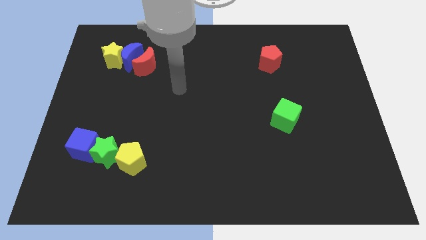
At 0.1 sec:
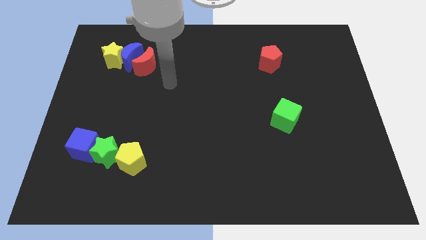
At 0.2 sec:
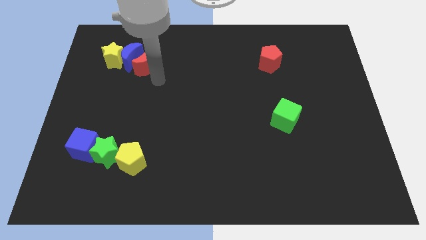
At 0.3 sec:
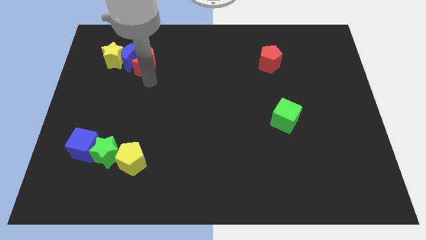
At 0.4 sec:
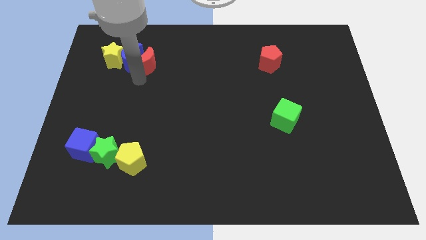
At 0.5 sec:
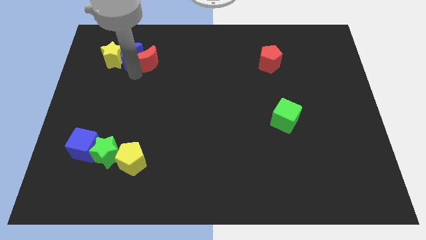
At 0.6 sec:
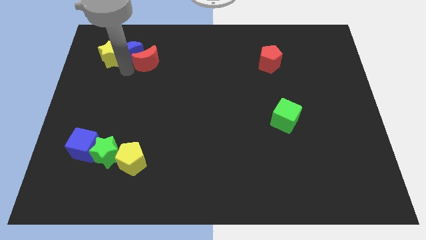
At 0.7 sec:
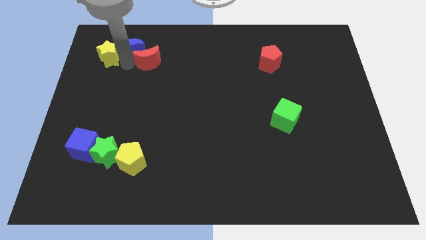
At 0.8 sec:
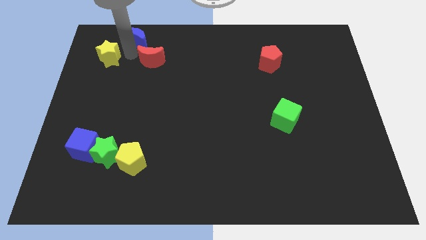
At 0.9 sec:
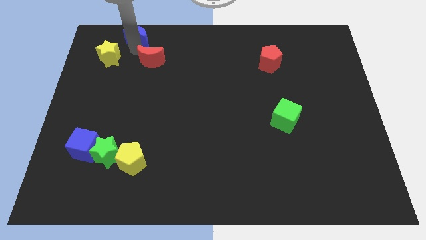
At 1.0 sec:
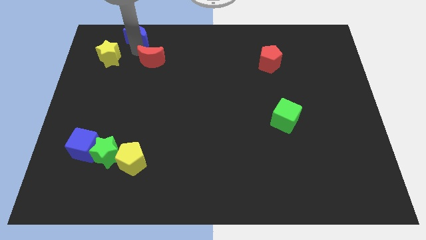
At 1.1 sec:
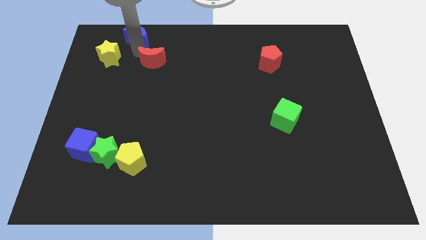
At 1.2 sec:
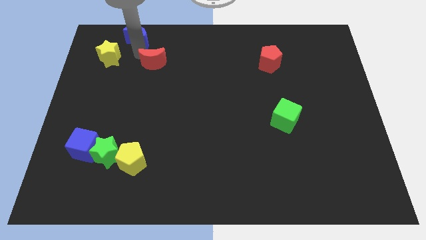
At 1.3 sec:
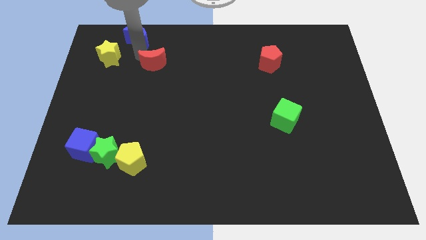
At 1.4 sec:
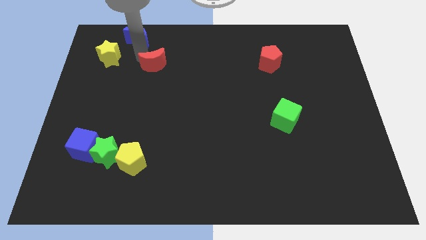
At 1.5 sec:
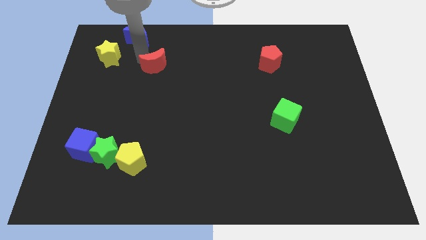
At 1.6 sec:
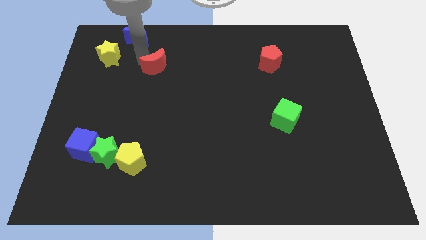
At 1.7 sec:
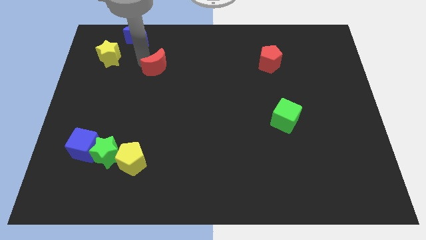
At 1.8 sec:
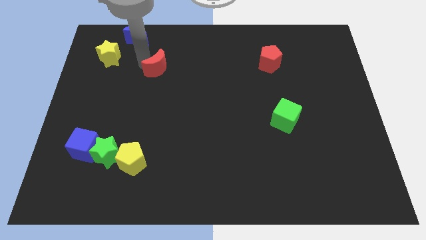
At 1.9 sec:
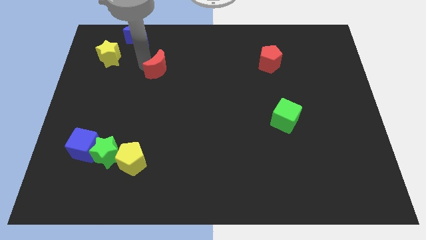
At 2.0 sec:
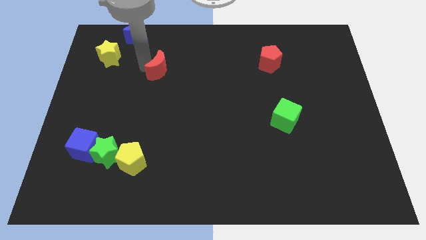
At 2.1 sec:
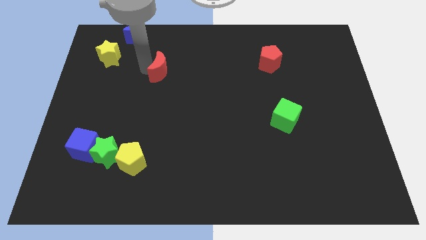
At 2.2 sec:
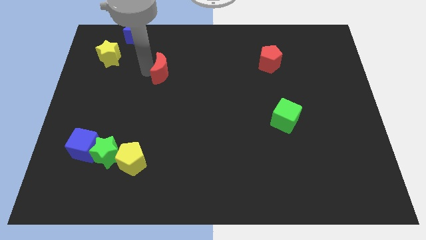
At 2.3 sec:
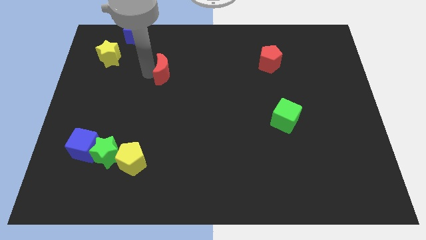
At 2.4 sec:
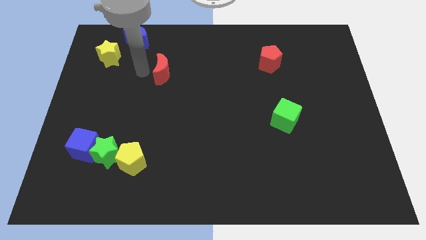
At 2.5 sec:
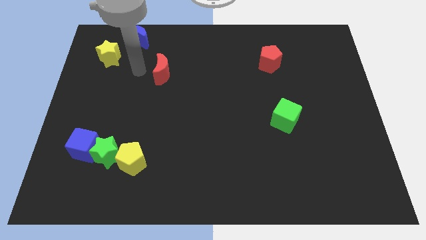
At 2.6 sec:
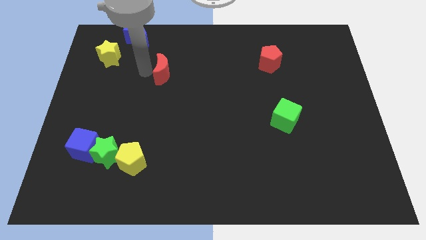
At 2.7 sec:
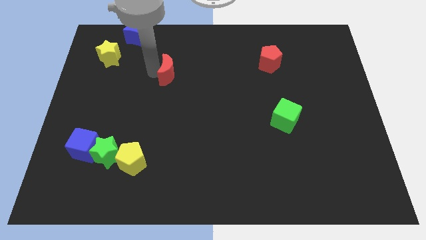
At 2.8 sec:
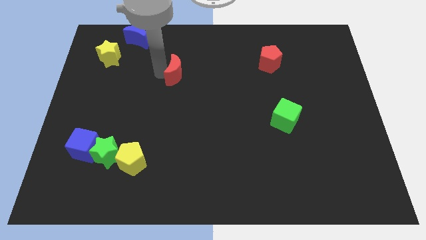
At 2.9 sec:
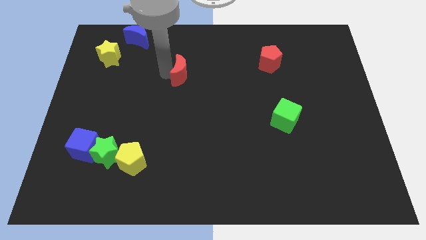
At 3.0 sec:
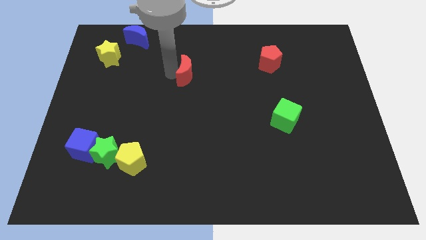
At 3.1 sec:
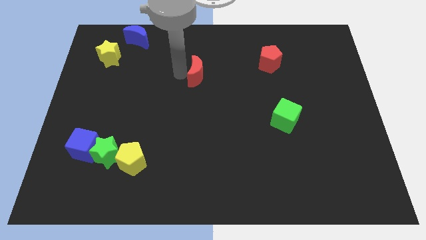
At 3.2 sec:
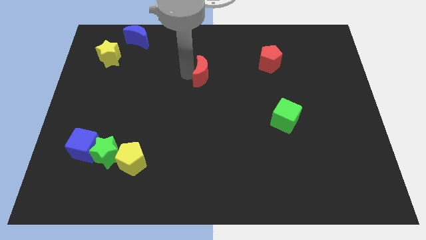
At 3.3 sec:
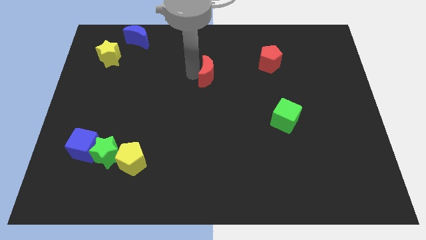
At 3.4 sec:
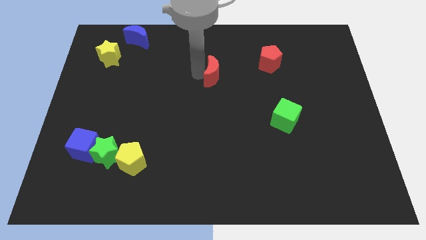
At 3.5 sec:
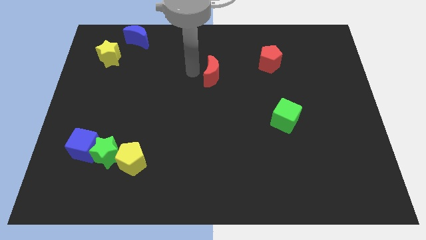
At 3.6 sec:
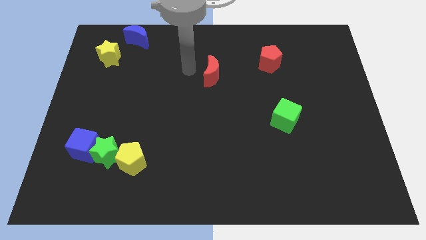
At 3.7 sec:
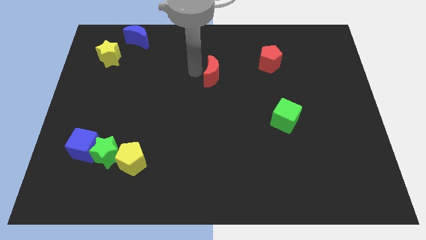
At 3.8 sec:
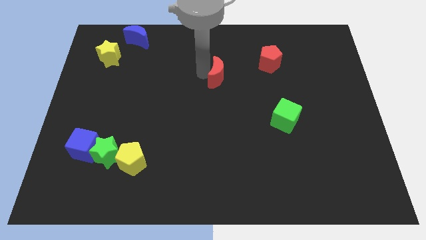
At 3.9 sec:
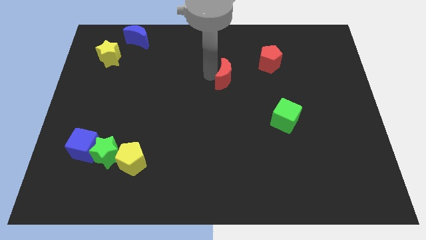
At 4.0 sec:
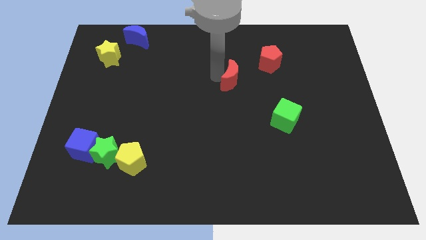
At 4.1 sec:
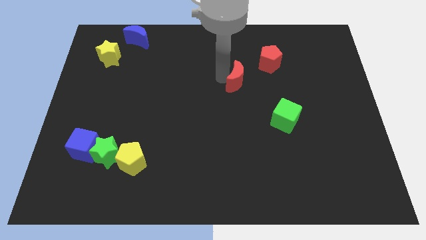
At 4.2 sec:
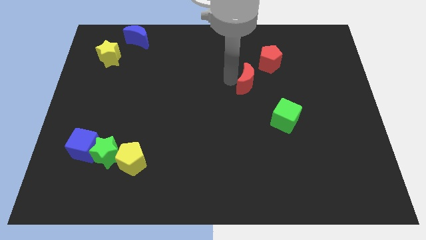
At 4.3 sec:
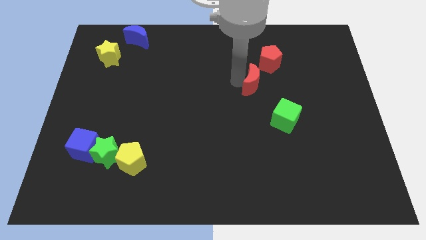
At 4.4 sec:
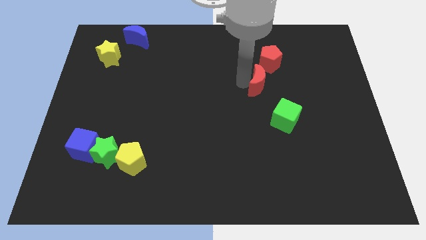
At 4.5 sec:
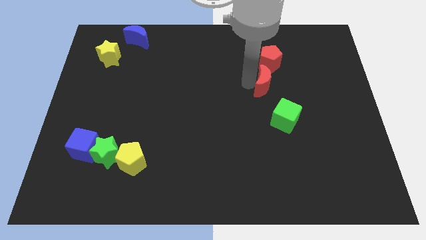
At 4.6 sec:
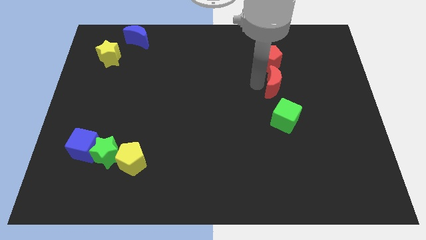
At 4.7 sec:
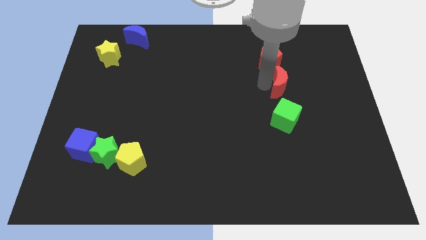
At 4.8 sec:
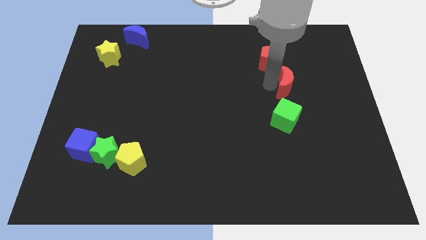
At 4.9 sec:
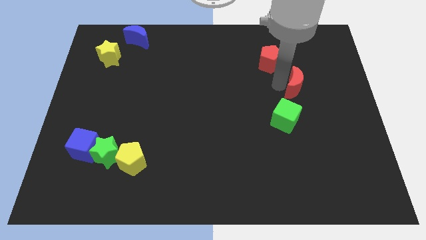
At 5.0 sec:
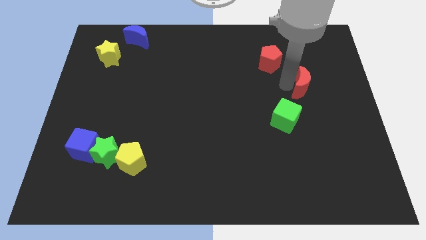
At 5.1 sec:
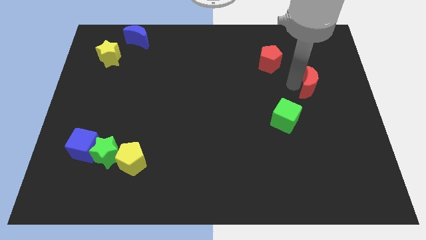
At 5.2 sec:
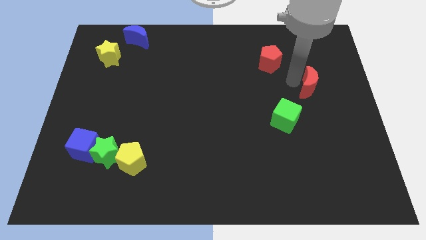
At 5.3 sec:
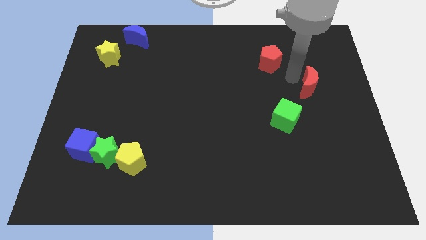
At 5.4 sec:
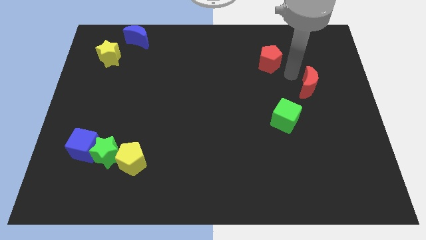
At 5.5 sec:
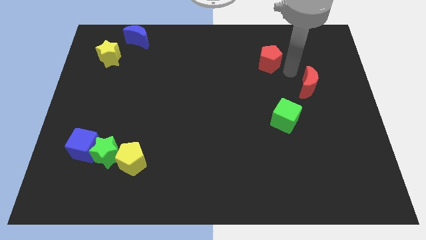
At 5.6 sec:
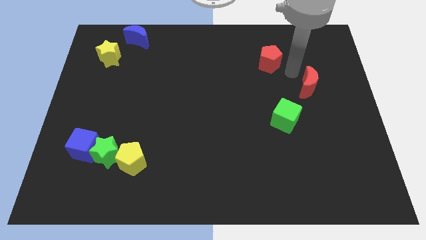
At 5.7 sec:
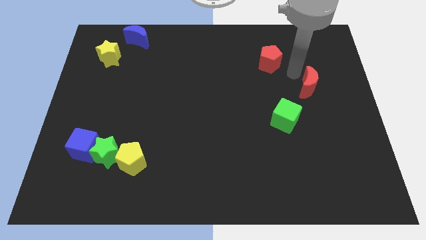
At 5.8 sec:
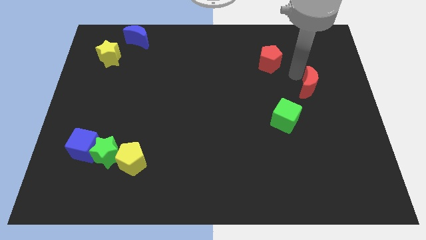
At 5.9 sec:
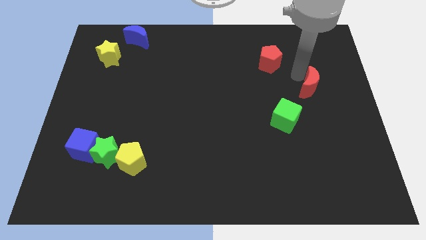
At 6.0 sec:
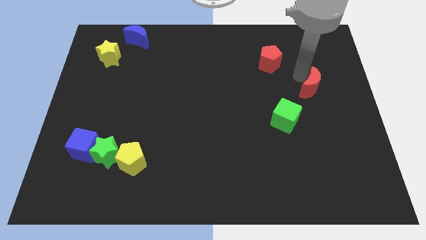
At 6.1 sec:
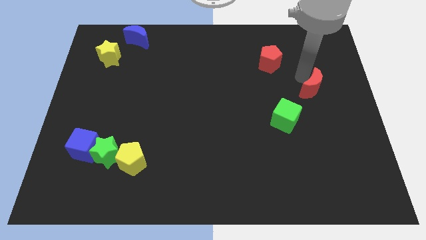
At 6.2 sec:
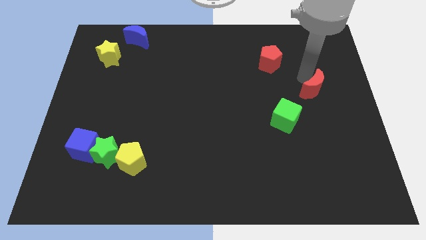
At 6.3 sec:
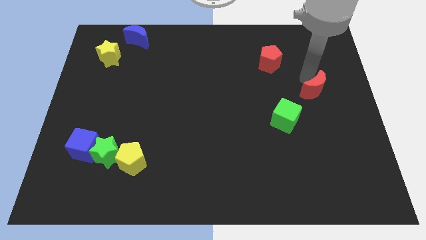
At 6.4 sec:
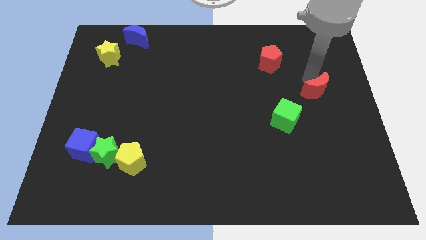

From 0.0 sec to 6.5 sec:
slide the red moon to the center right
